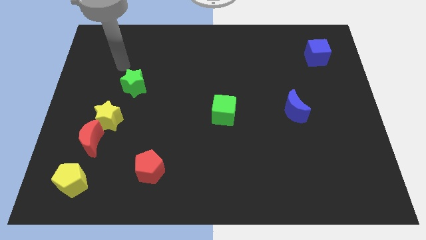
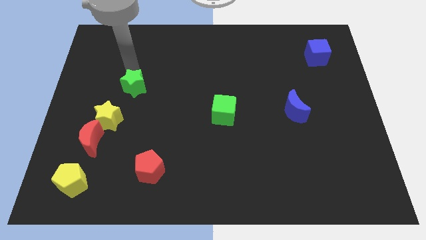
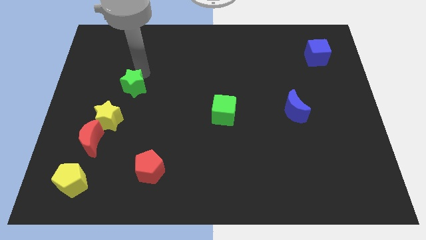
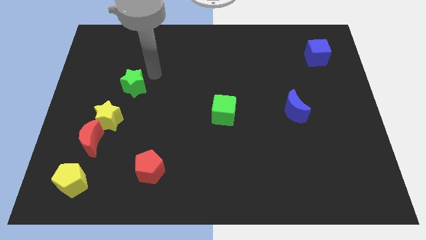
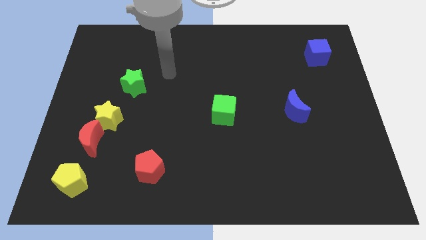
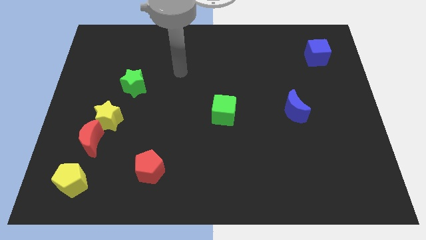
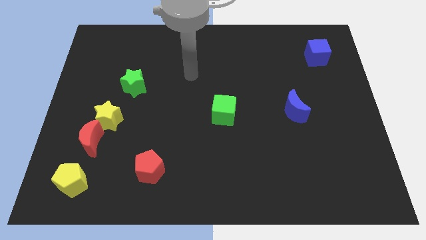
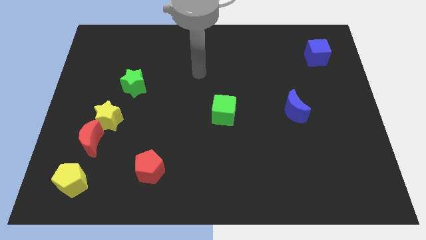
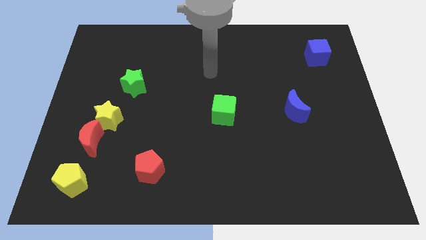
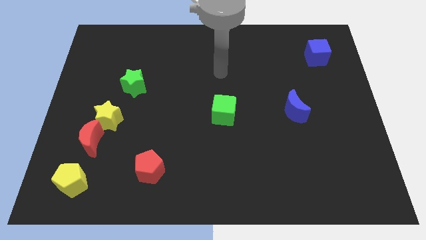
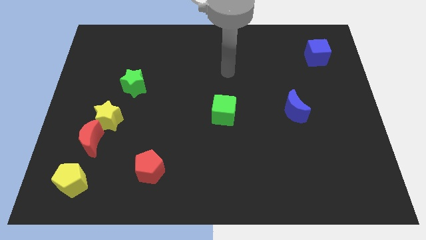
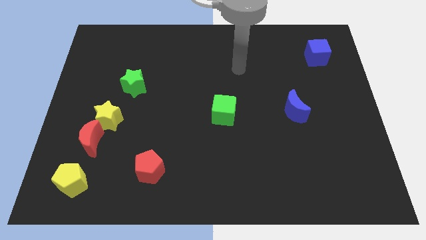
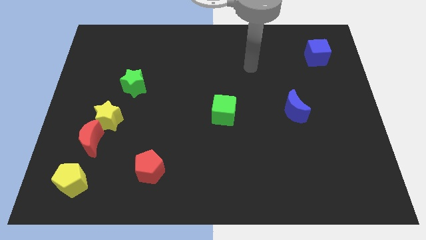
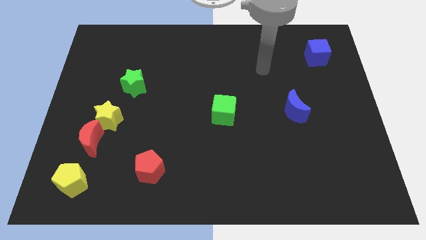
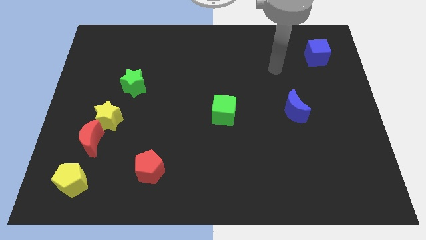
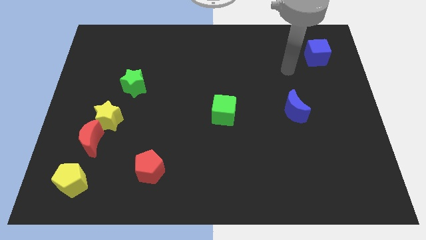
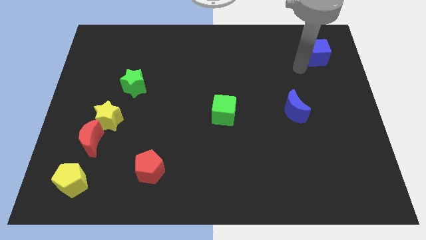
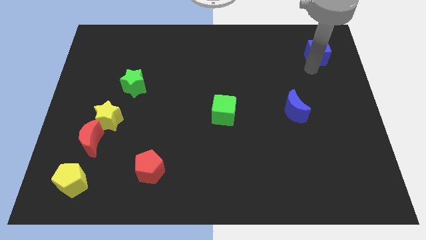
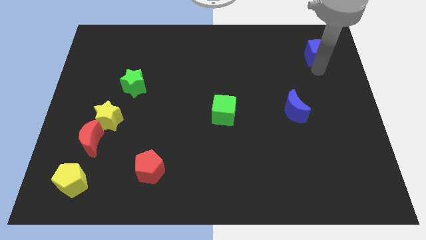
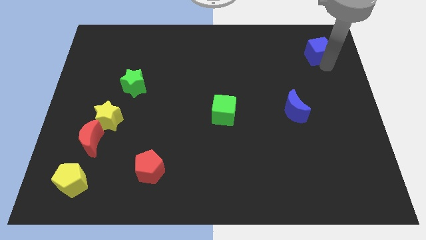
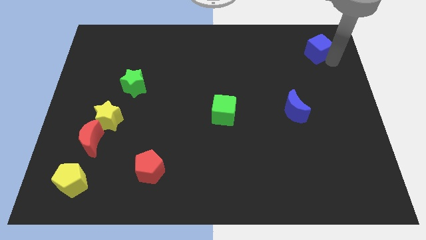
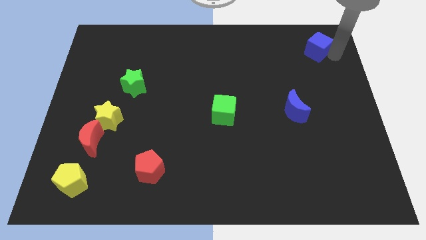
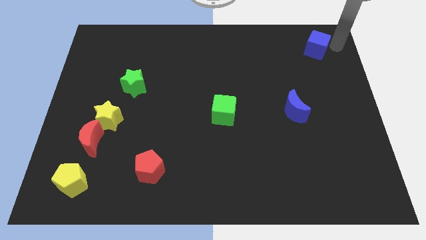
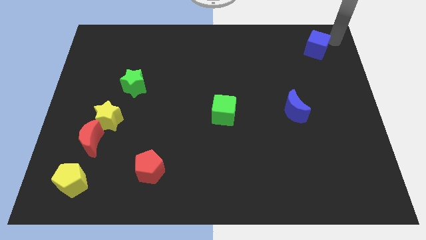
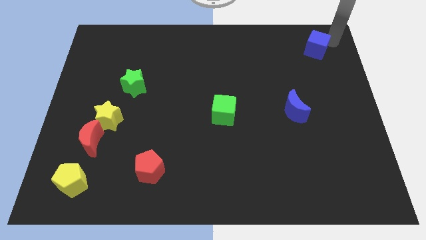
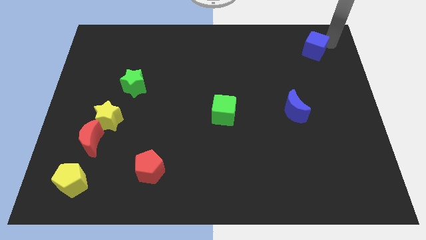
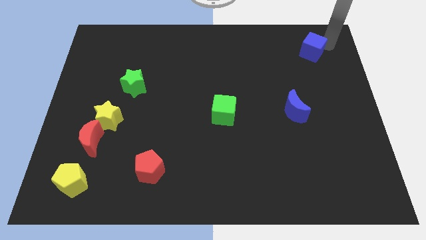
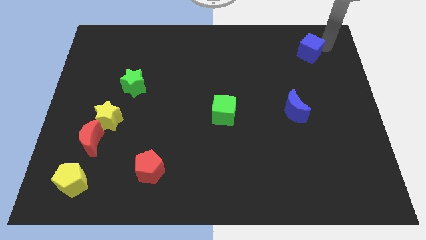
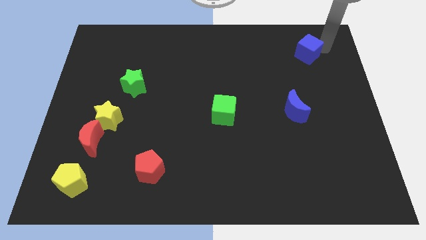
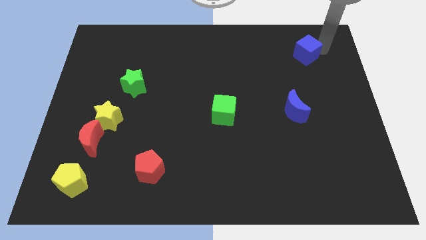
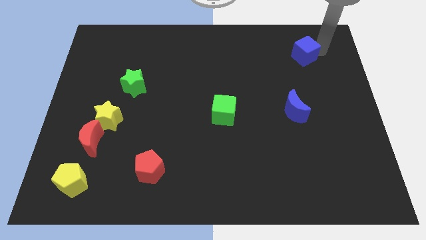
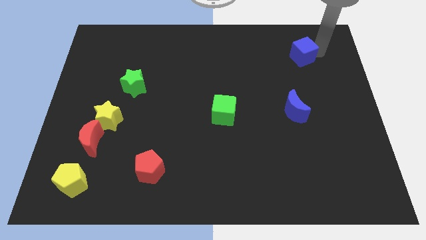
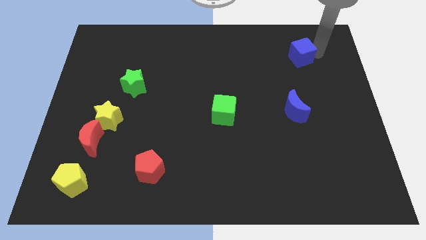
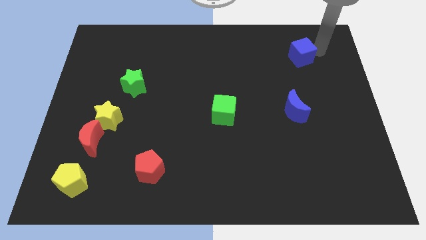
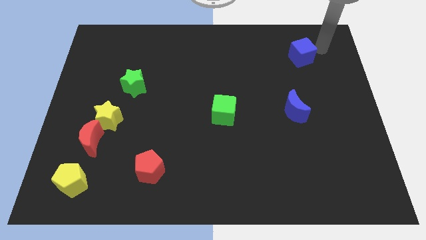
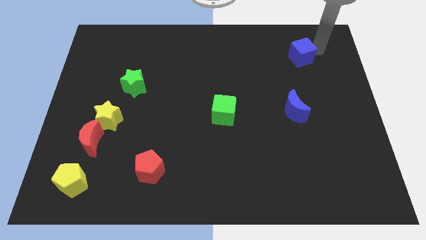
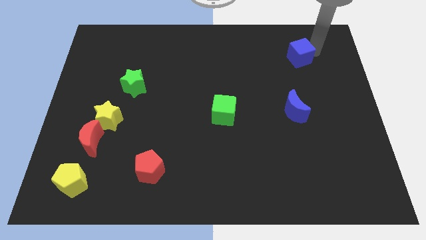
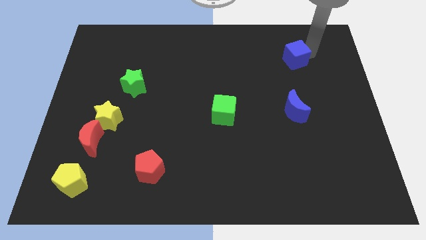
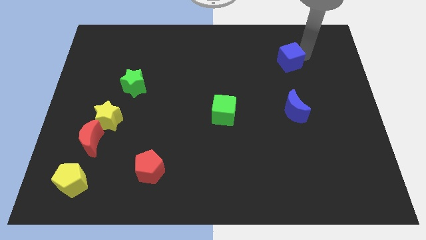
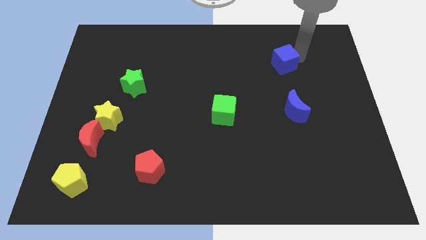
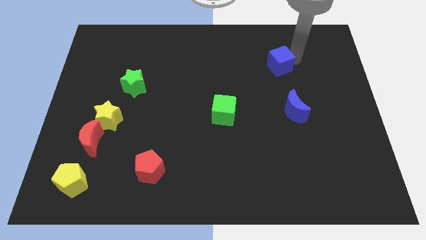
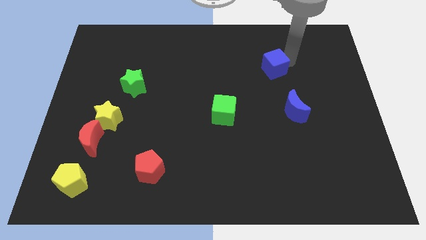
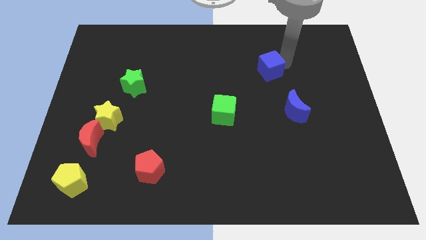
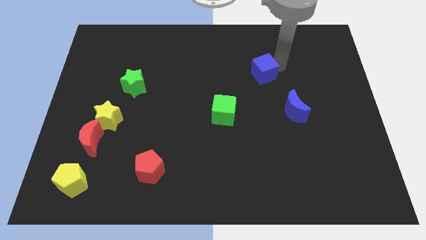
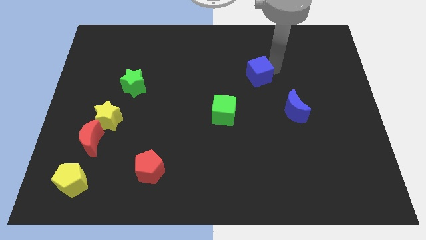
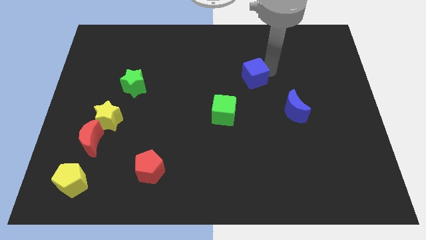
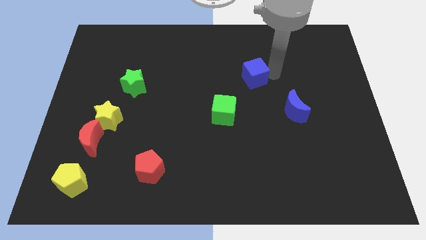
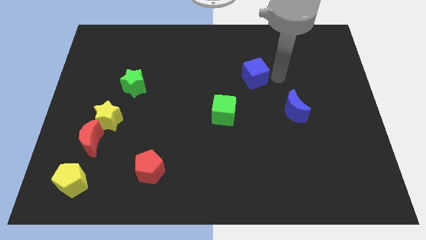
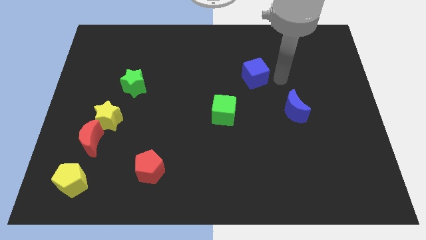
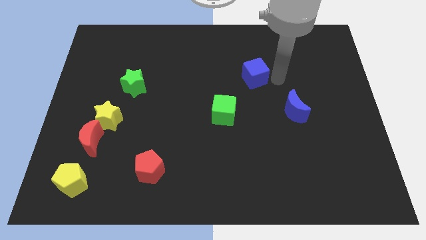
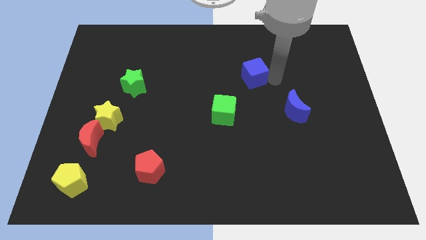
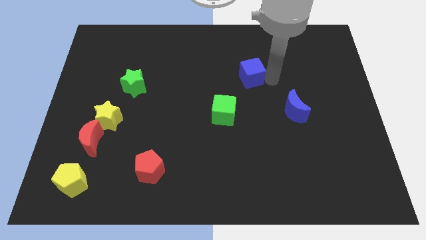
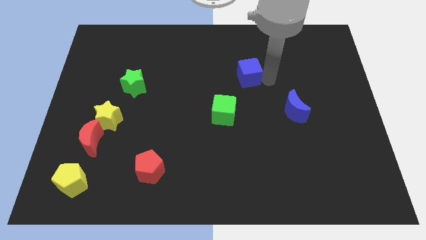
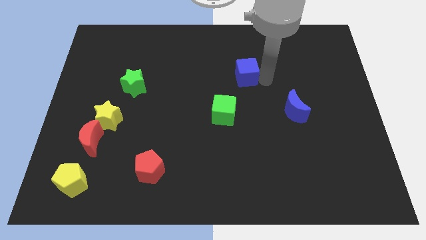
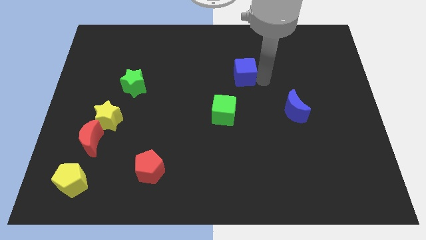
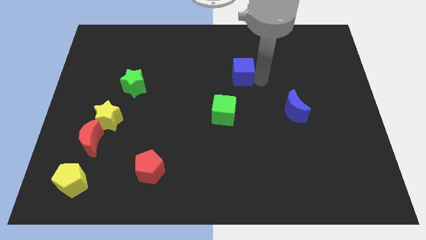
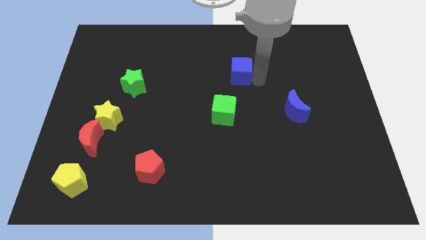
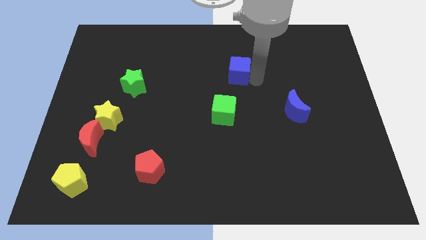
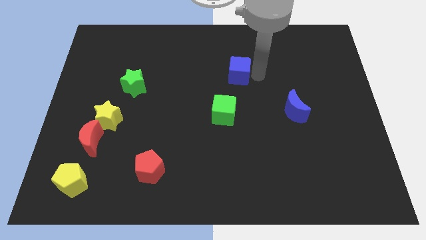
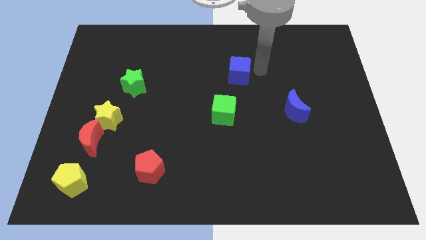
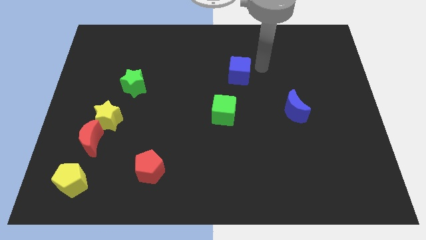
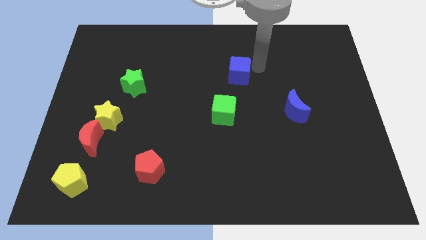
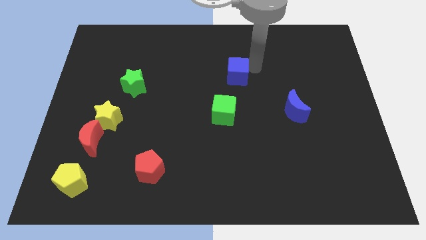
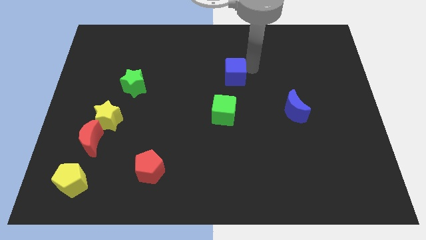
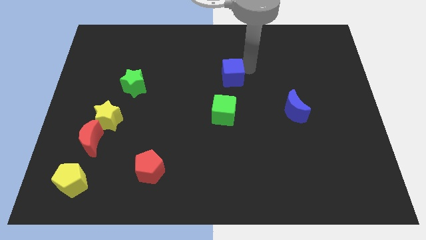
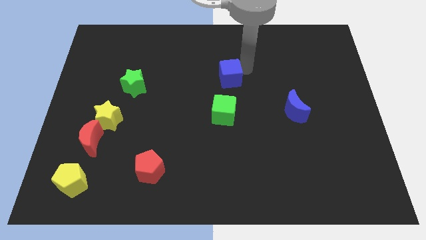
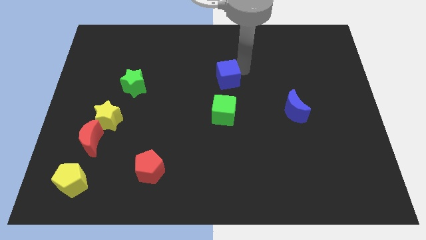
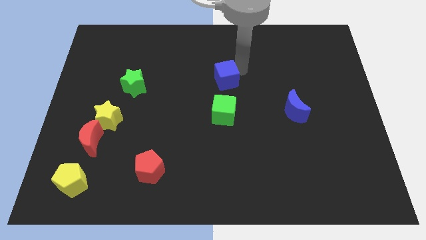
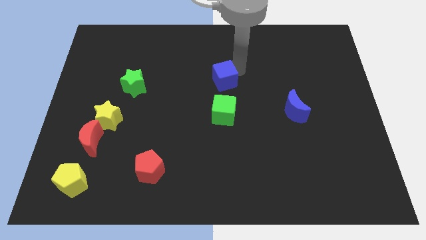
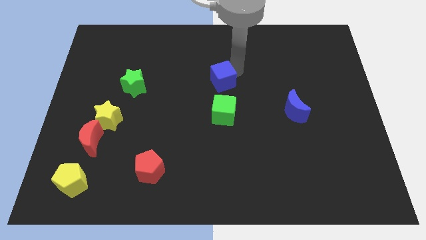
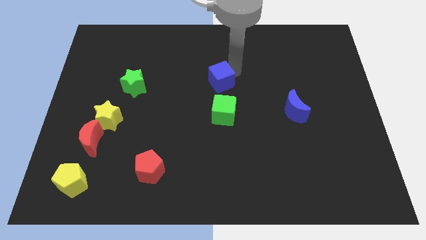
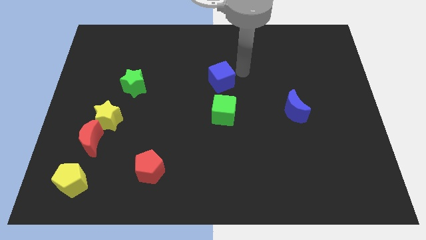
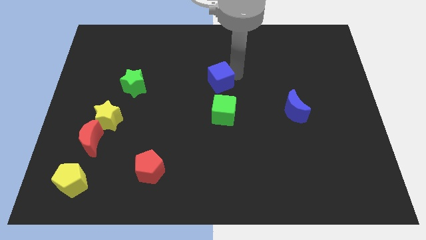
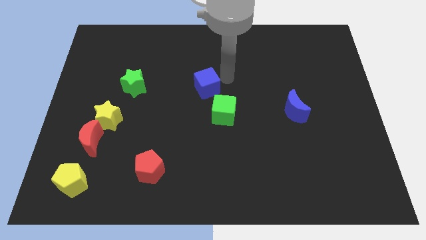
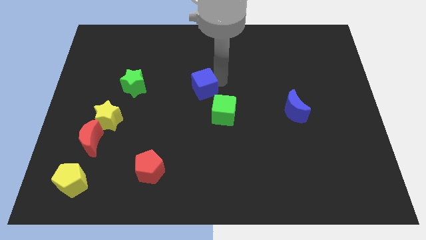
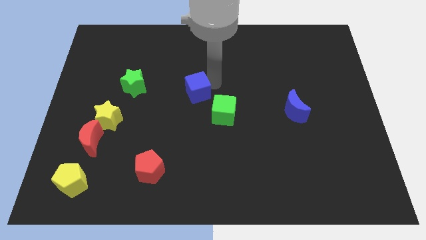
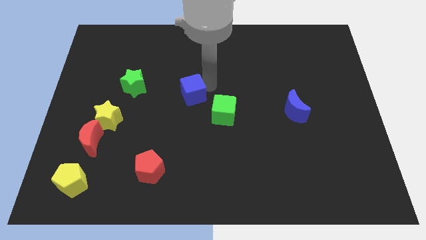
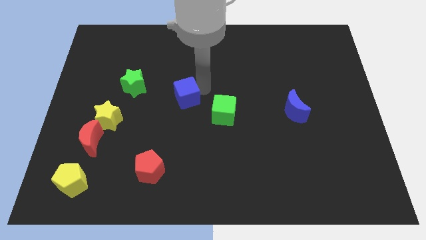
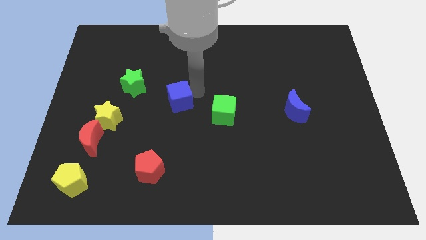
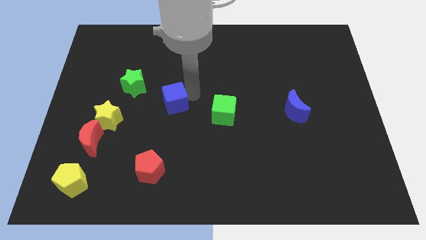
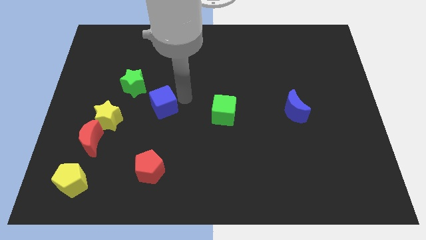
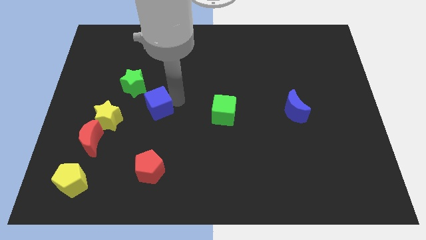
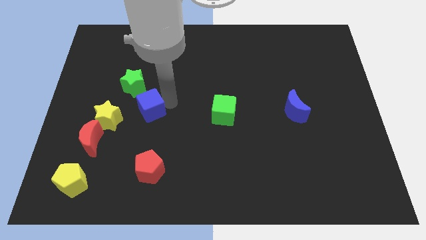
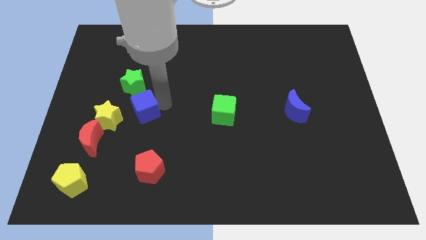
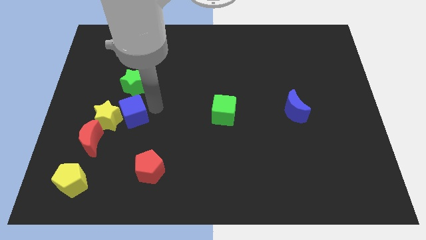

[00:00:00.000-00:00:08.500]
push the blue cube next to the yellow star
